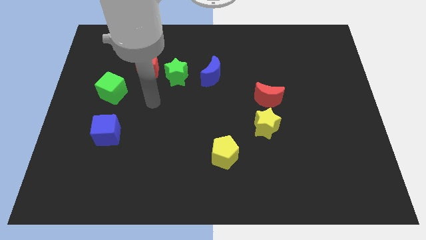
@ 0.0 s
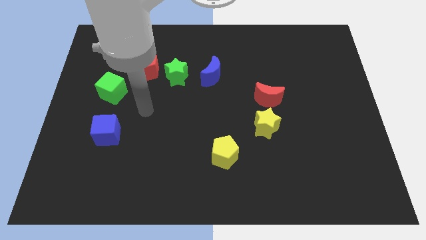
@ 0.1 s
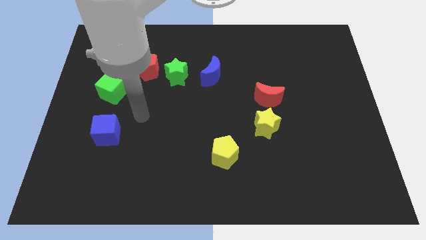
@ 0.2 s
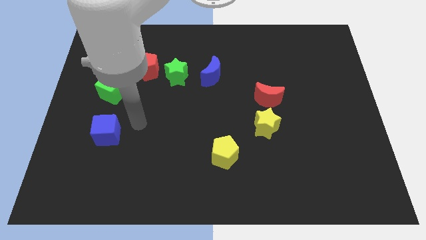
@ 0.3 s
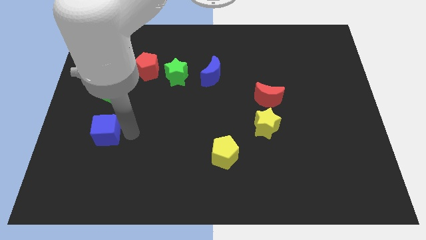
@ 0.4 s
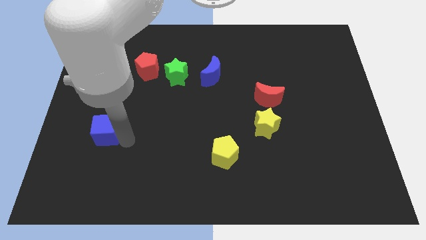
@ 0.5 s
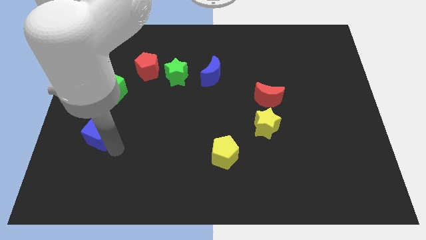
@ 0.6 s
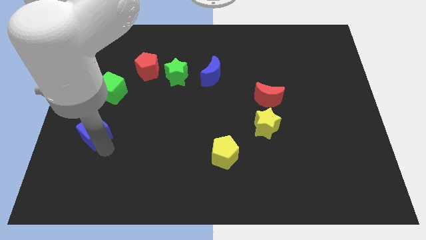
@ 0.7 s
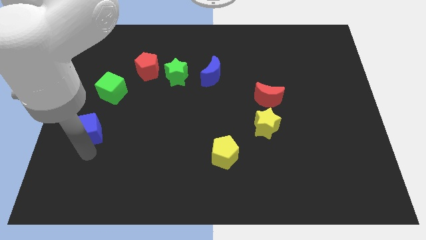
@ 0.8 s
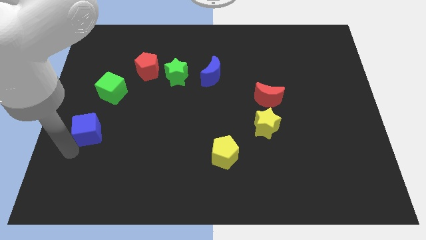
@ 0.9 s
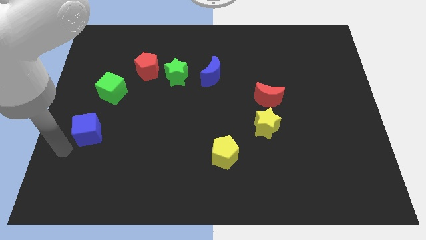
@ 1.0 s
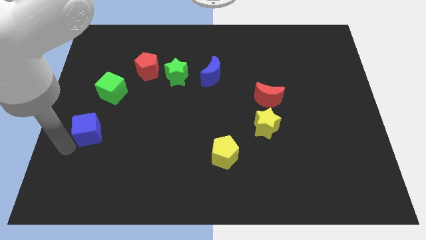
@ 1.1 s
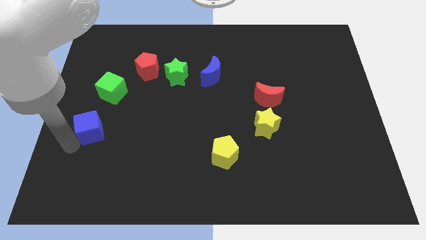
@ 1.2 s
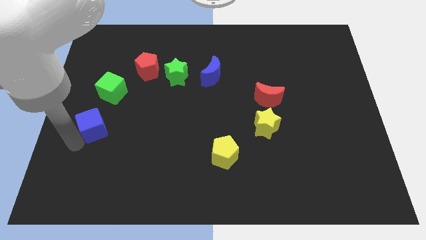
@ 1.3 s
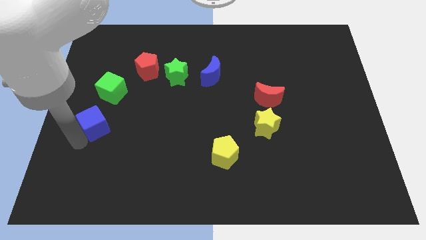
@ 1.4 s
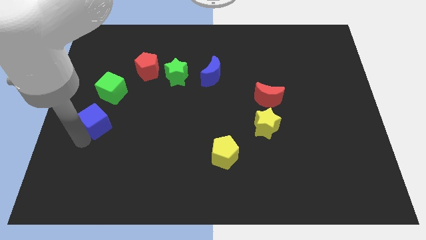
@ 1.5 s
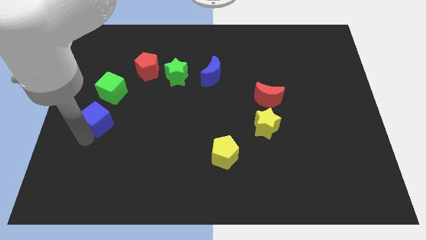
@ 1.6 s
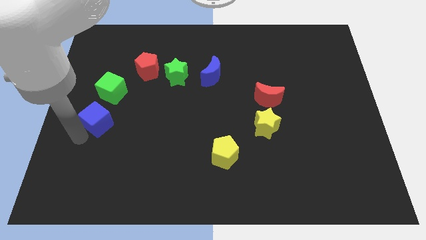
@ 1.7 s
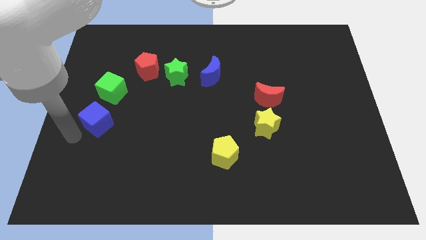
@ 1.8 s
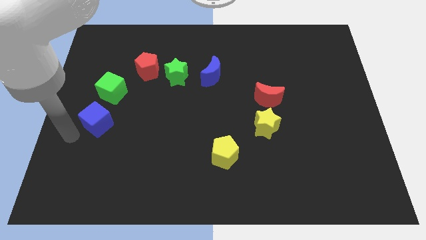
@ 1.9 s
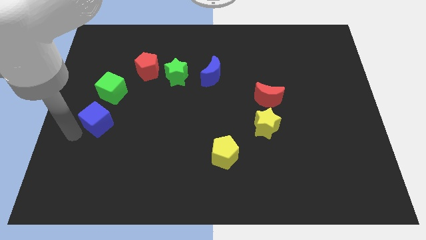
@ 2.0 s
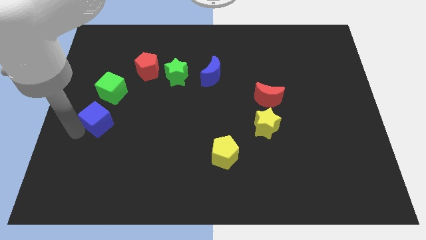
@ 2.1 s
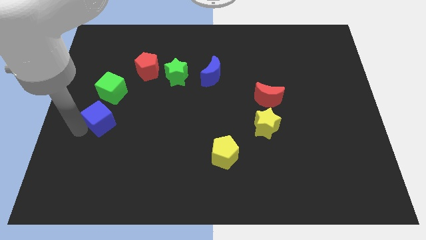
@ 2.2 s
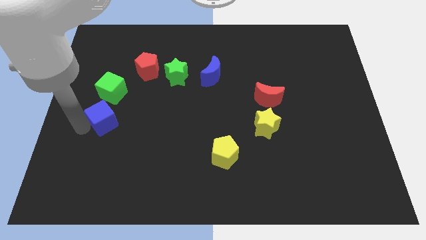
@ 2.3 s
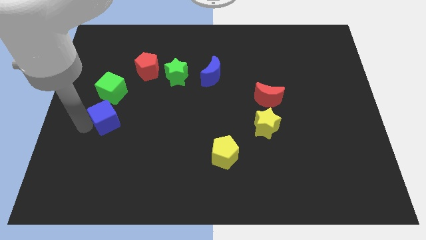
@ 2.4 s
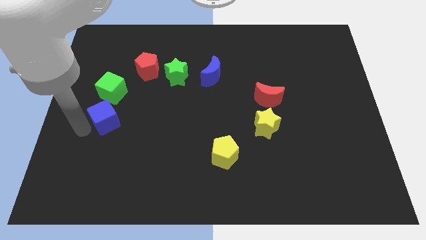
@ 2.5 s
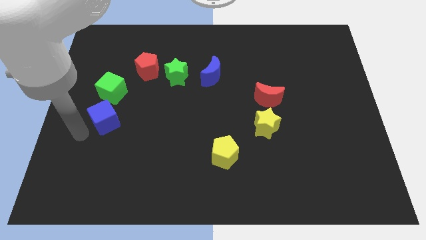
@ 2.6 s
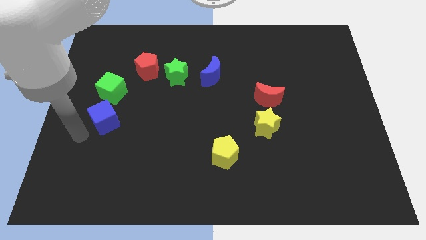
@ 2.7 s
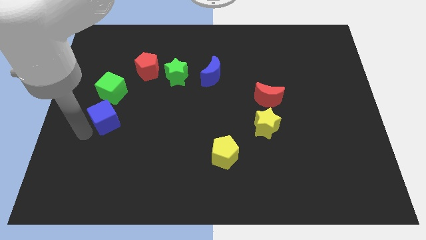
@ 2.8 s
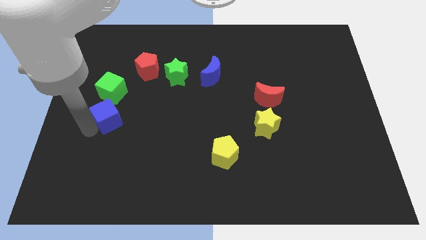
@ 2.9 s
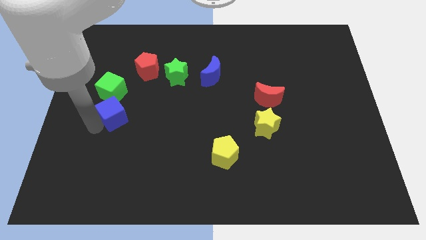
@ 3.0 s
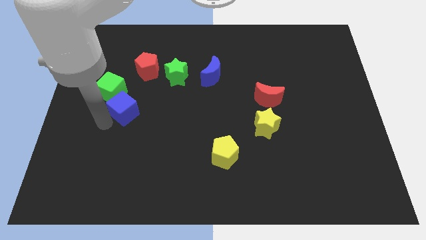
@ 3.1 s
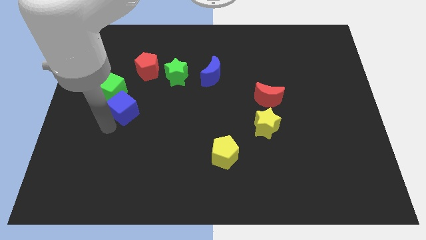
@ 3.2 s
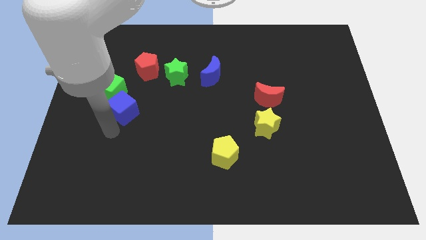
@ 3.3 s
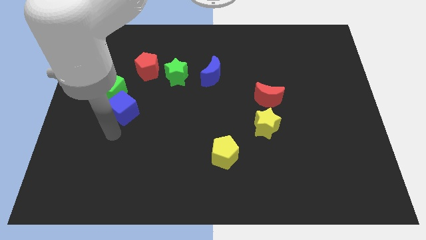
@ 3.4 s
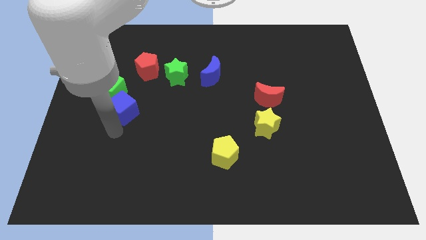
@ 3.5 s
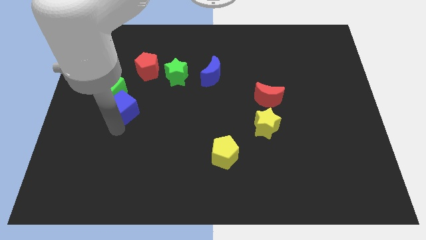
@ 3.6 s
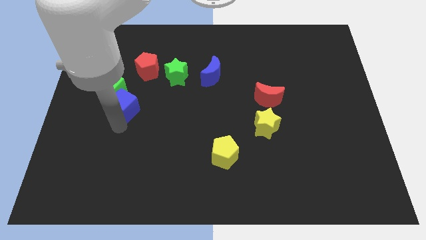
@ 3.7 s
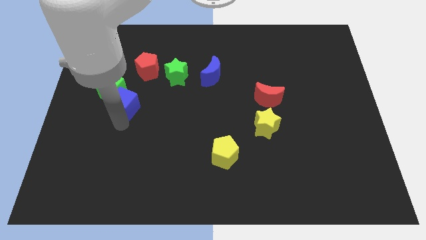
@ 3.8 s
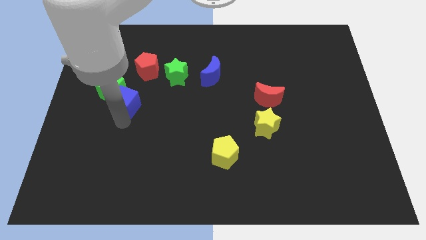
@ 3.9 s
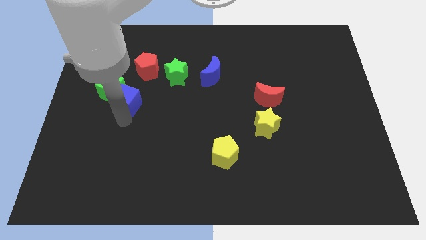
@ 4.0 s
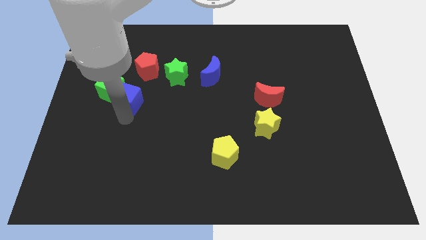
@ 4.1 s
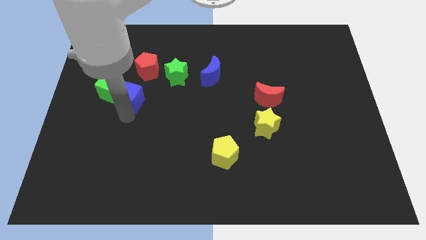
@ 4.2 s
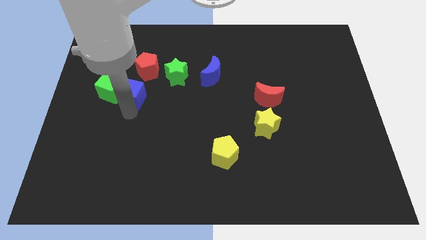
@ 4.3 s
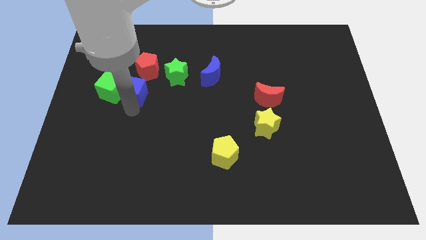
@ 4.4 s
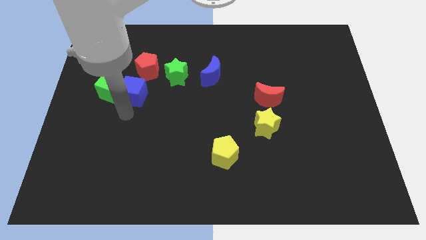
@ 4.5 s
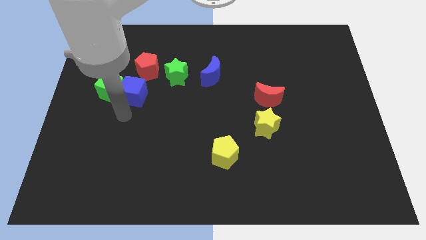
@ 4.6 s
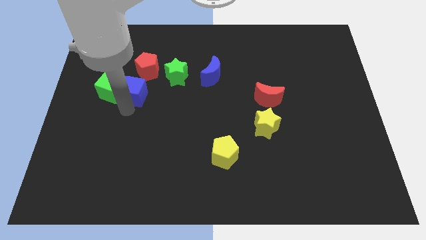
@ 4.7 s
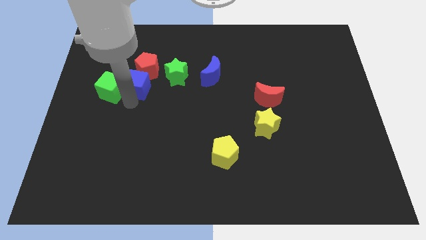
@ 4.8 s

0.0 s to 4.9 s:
slide the blue cube next to the red pentagon

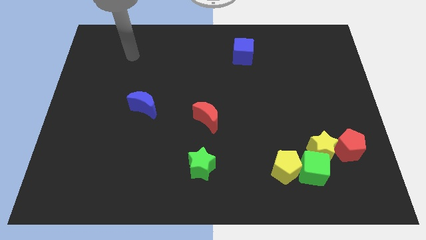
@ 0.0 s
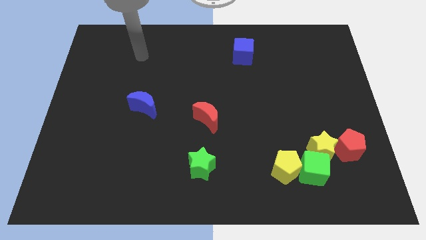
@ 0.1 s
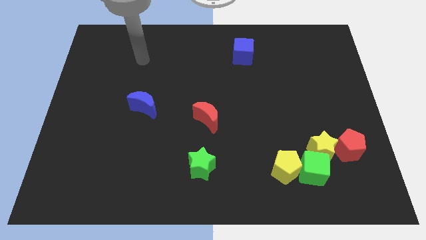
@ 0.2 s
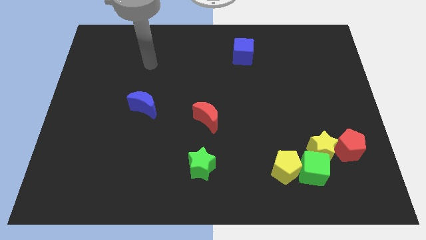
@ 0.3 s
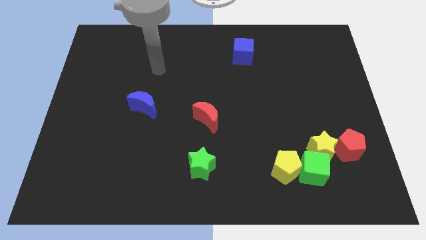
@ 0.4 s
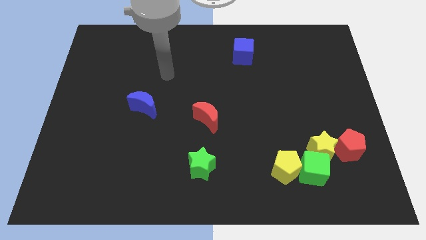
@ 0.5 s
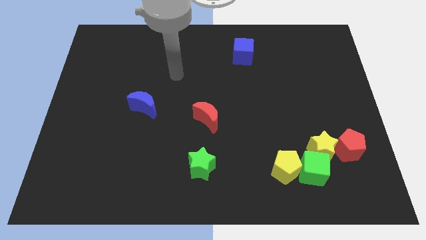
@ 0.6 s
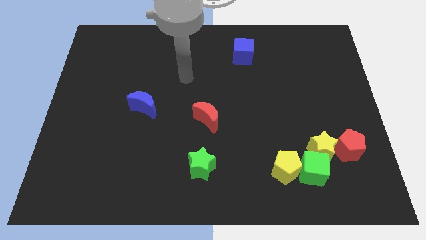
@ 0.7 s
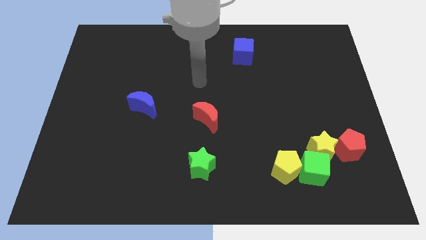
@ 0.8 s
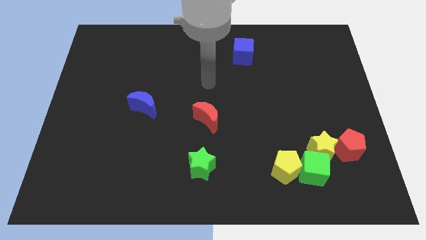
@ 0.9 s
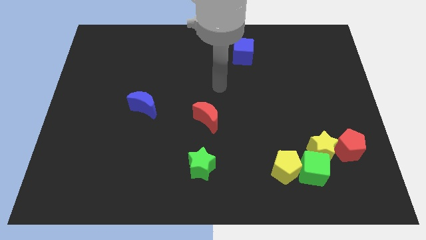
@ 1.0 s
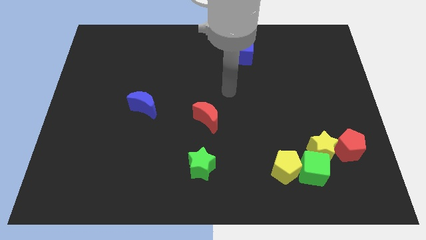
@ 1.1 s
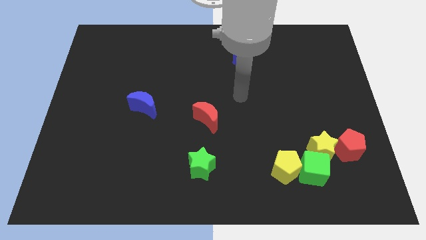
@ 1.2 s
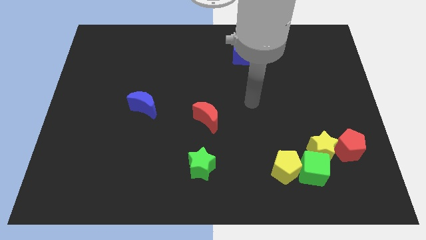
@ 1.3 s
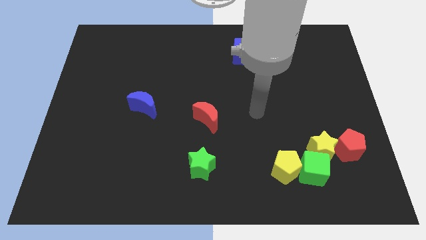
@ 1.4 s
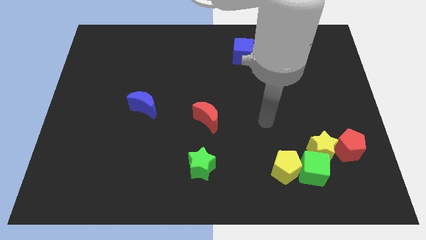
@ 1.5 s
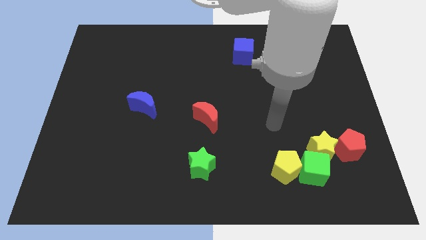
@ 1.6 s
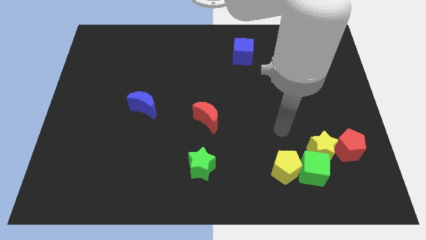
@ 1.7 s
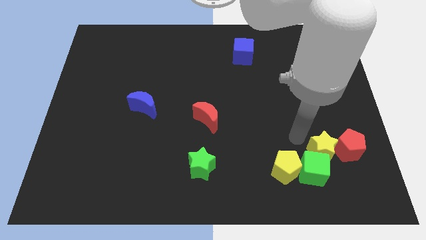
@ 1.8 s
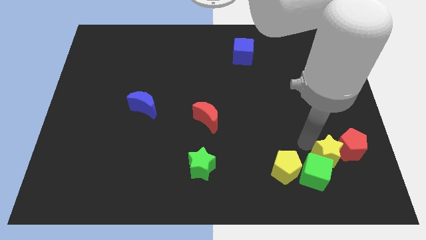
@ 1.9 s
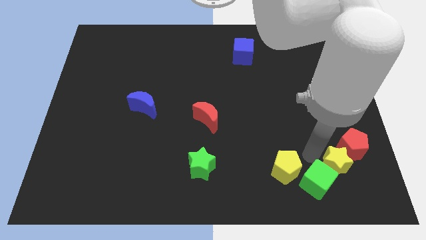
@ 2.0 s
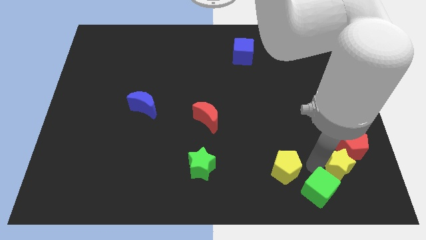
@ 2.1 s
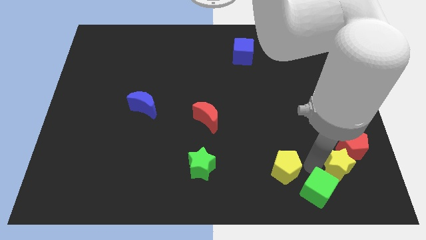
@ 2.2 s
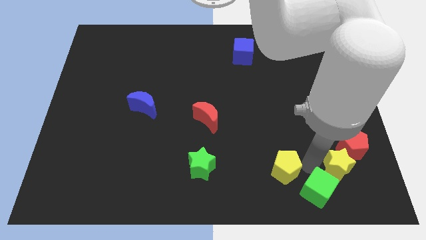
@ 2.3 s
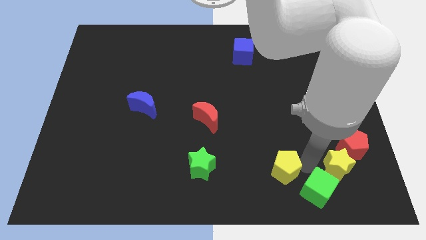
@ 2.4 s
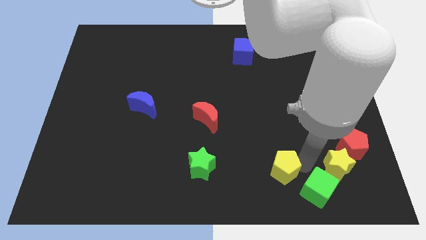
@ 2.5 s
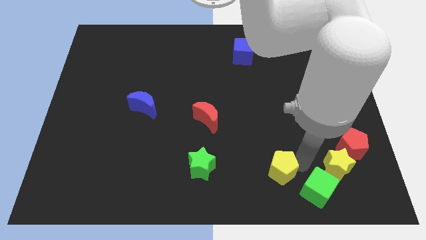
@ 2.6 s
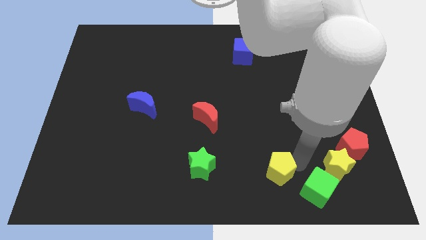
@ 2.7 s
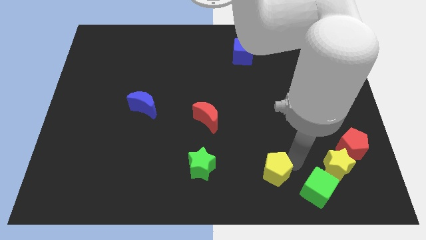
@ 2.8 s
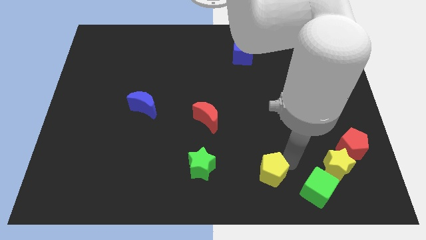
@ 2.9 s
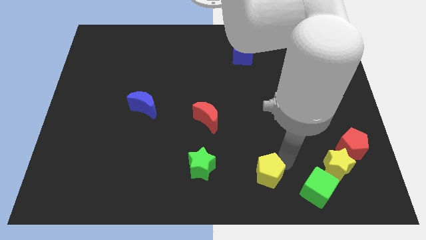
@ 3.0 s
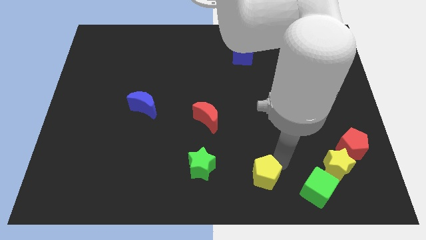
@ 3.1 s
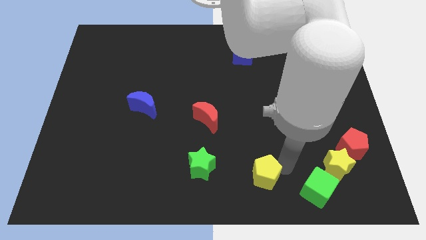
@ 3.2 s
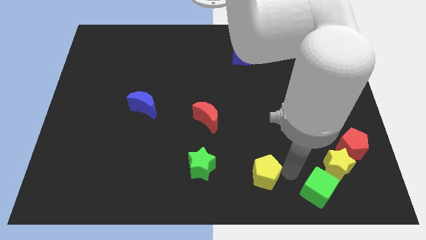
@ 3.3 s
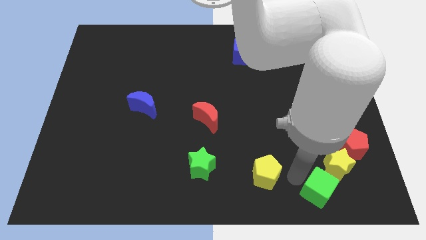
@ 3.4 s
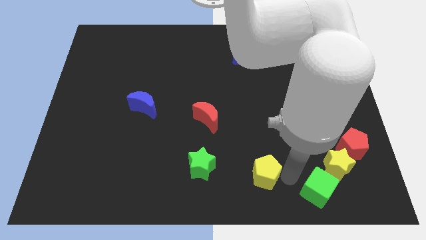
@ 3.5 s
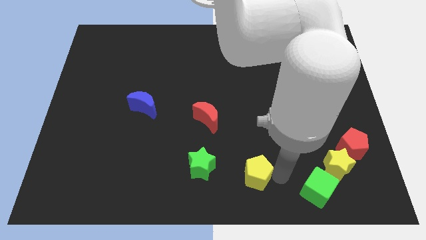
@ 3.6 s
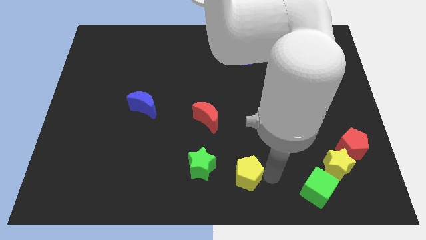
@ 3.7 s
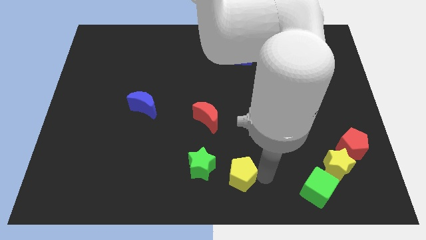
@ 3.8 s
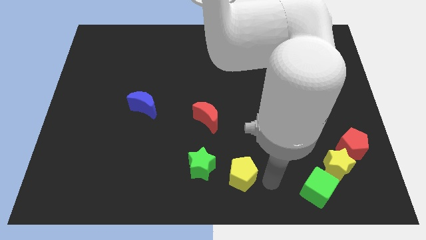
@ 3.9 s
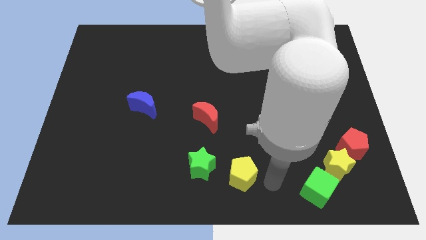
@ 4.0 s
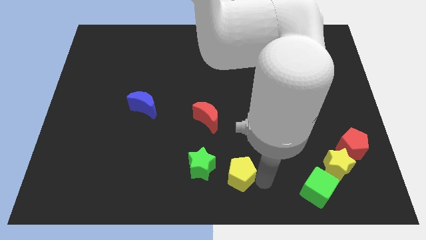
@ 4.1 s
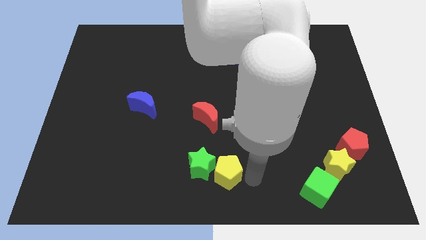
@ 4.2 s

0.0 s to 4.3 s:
slide the yellow pentagon close to the green star
